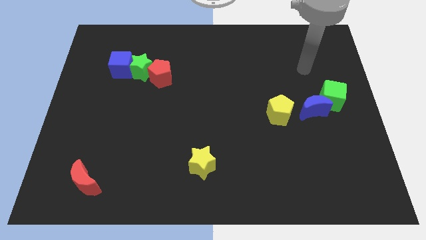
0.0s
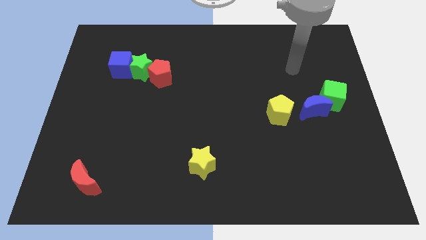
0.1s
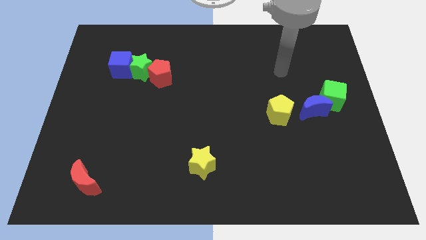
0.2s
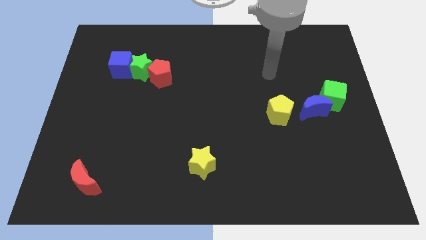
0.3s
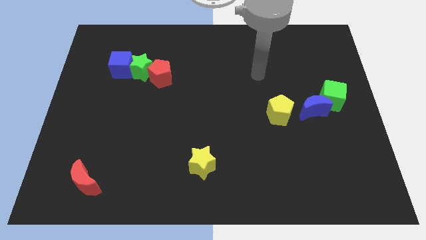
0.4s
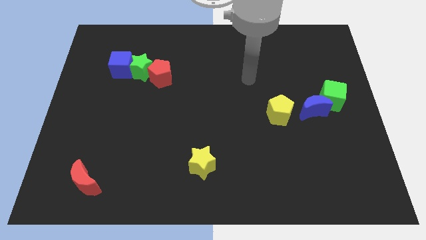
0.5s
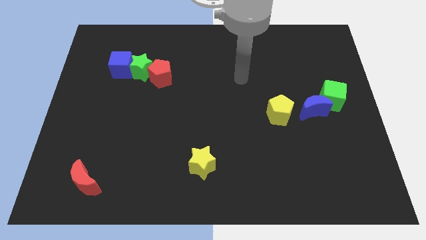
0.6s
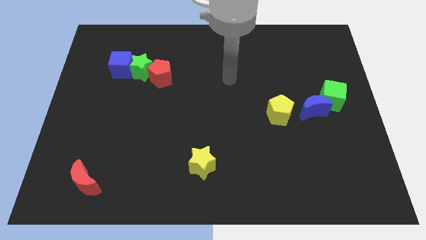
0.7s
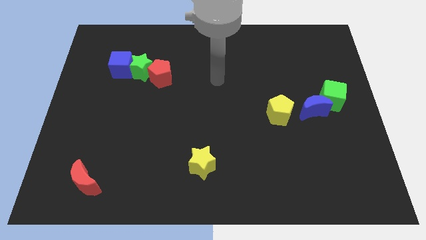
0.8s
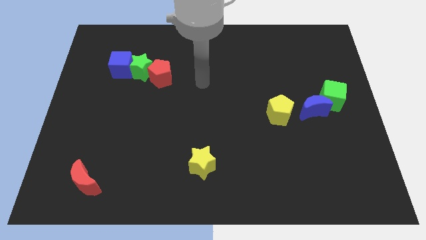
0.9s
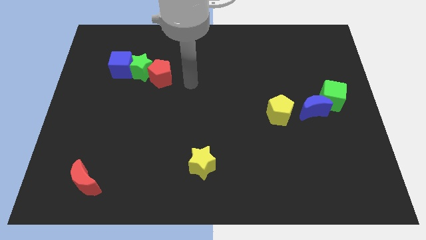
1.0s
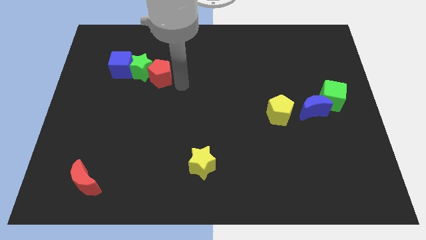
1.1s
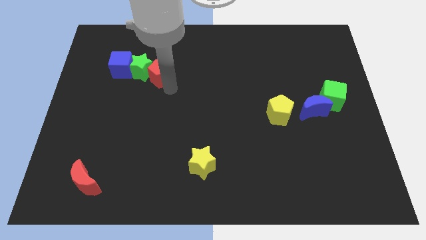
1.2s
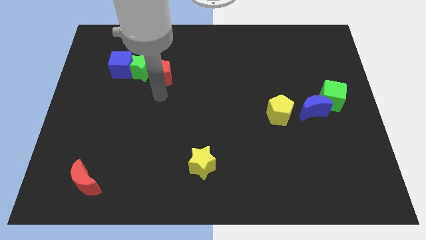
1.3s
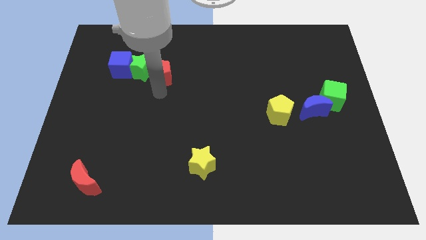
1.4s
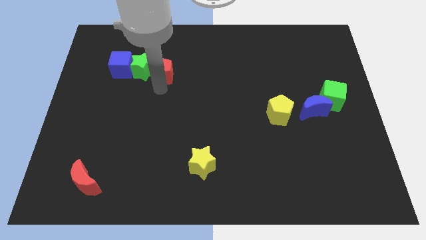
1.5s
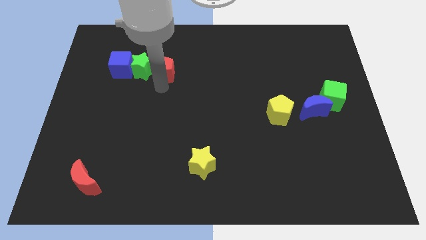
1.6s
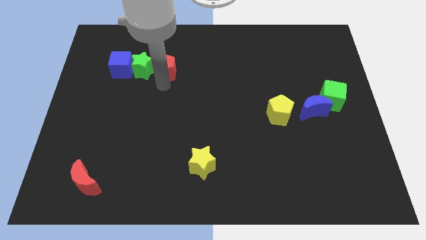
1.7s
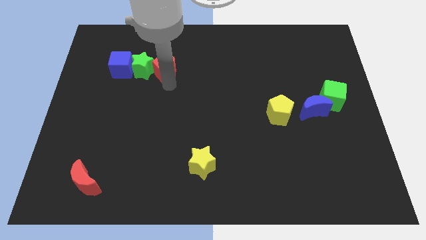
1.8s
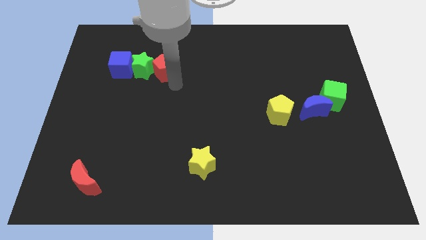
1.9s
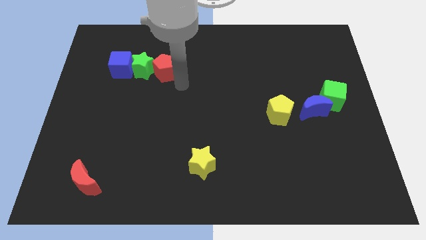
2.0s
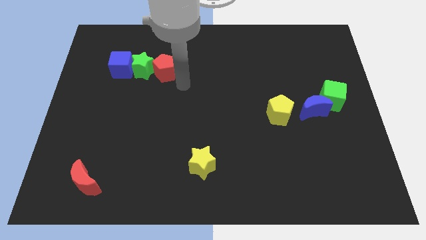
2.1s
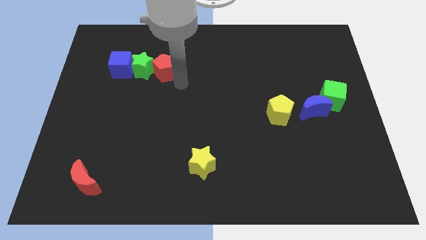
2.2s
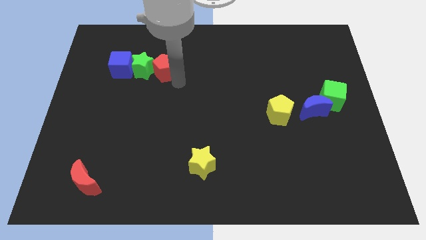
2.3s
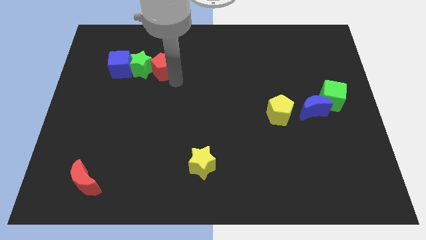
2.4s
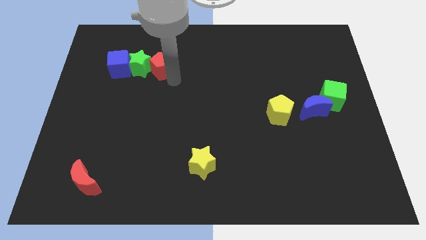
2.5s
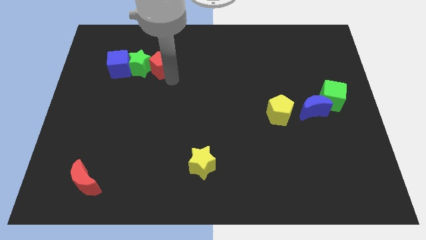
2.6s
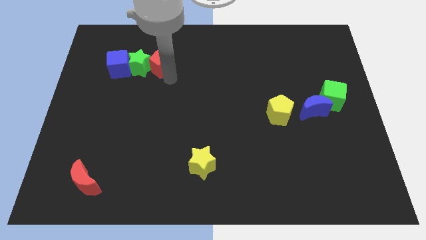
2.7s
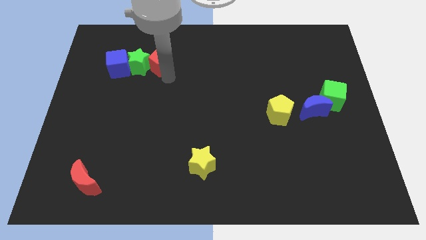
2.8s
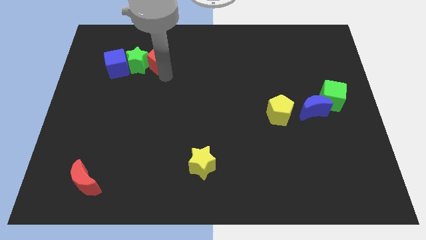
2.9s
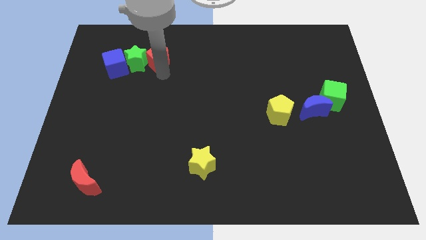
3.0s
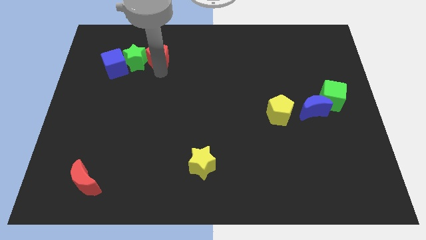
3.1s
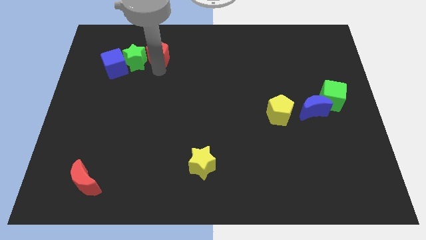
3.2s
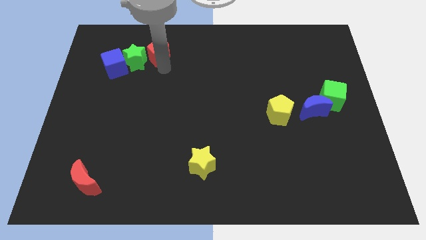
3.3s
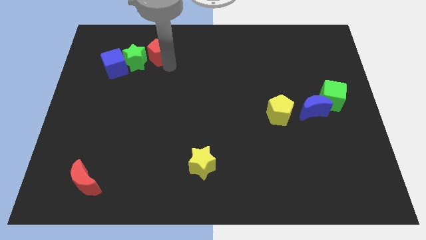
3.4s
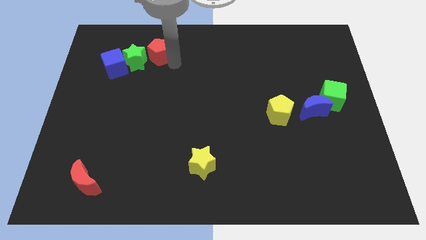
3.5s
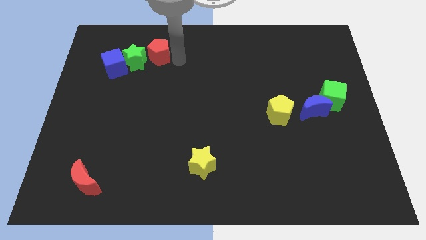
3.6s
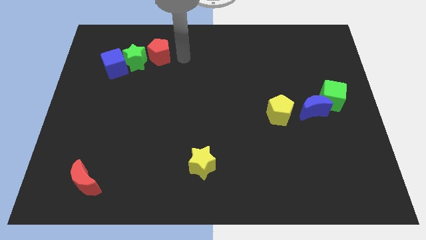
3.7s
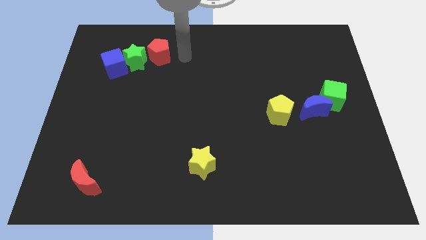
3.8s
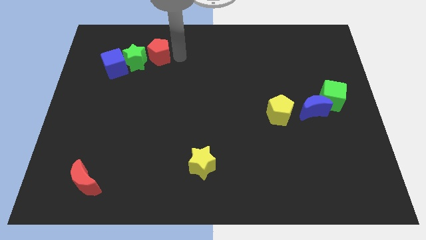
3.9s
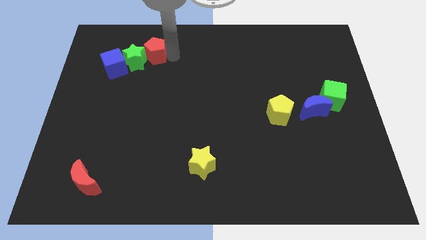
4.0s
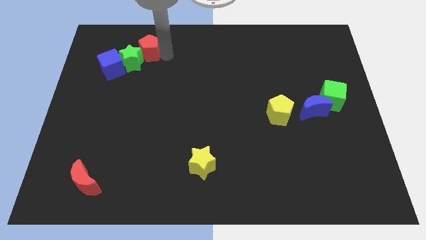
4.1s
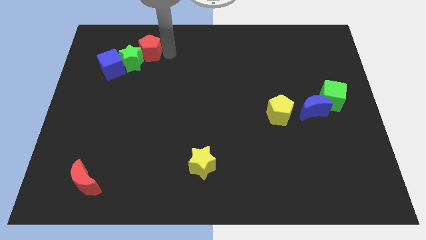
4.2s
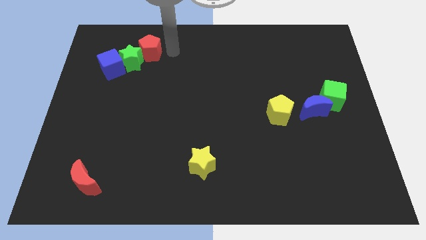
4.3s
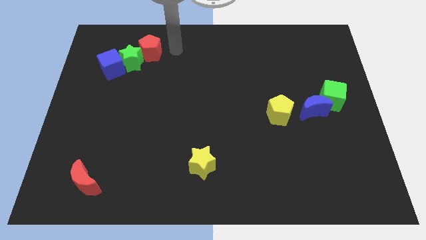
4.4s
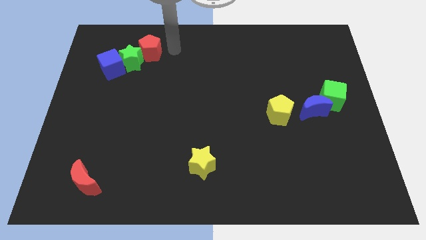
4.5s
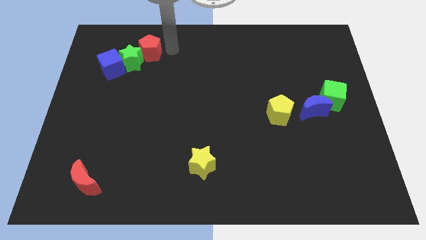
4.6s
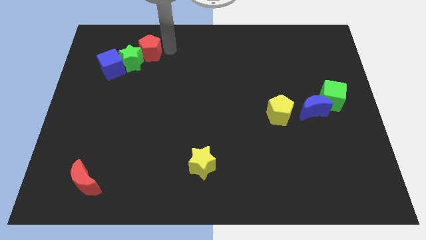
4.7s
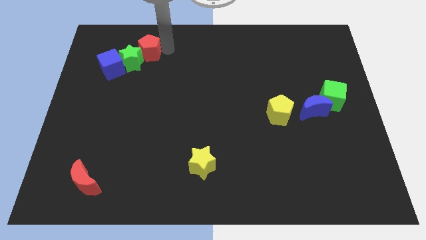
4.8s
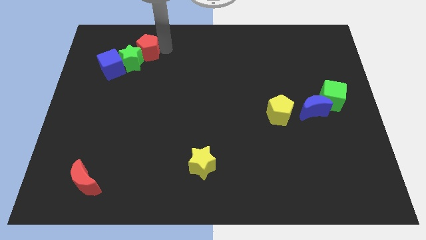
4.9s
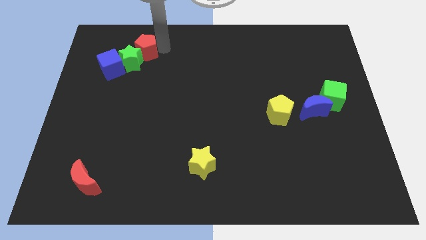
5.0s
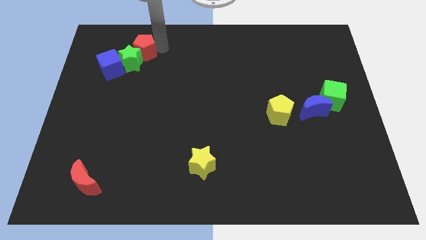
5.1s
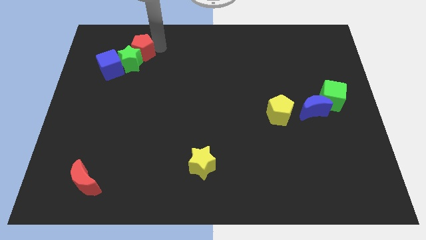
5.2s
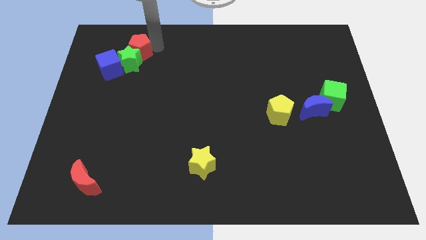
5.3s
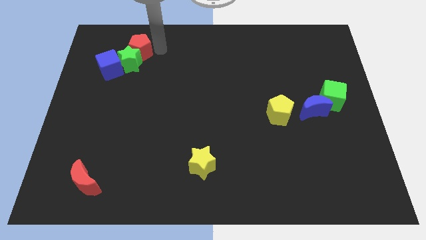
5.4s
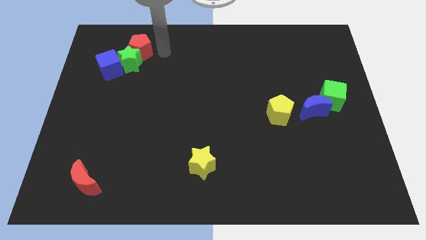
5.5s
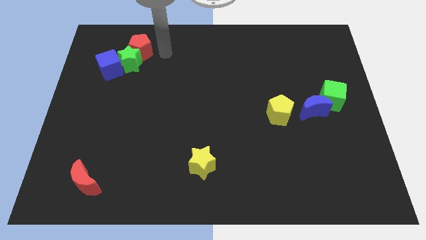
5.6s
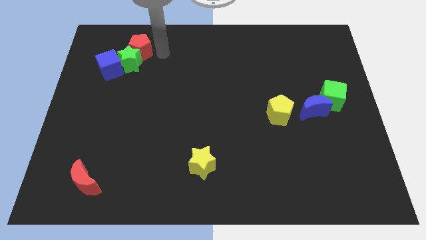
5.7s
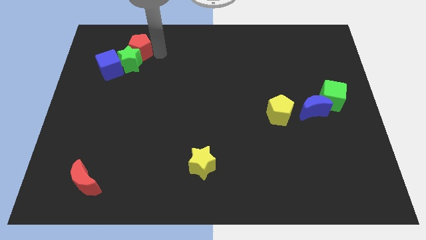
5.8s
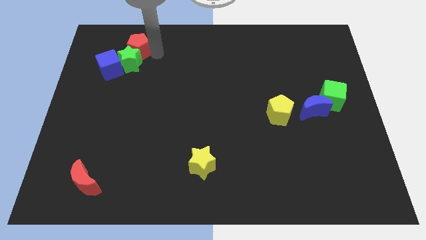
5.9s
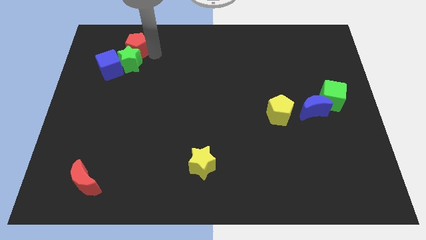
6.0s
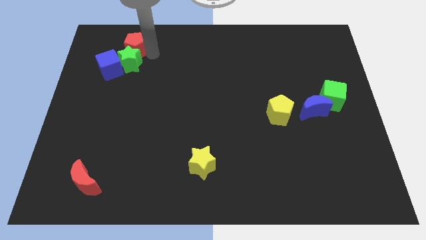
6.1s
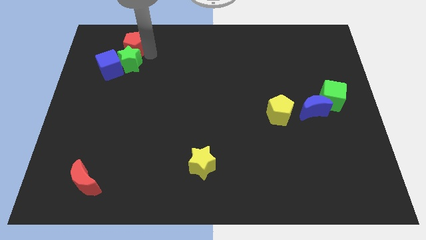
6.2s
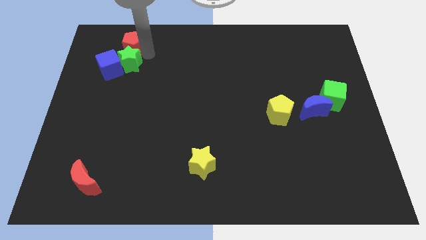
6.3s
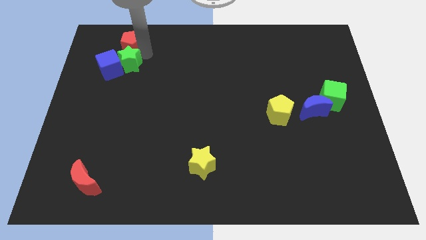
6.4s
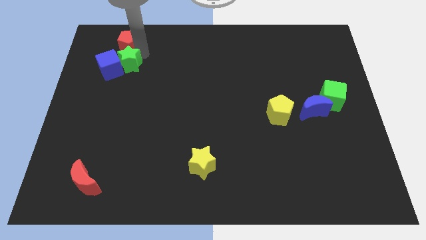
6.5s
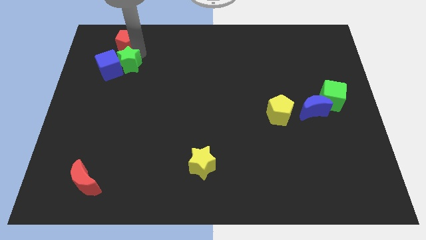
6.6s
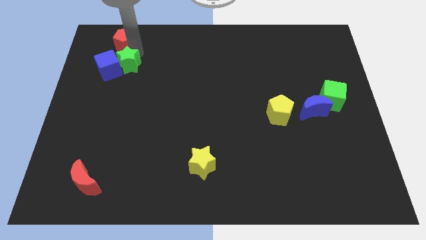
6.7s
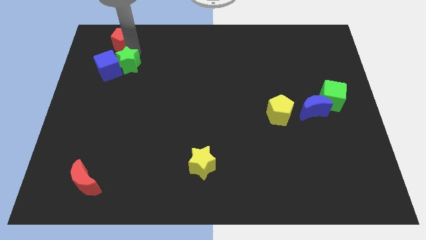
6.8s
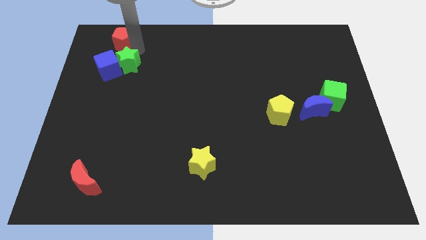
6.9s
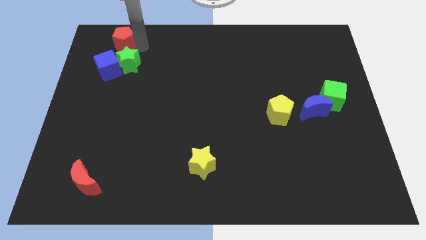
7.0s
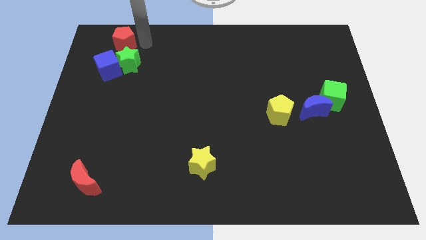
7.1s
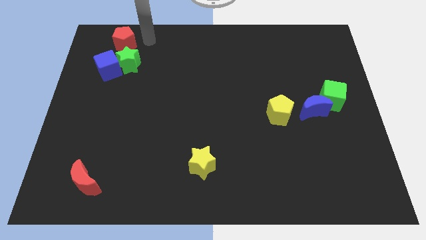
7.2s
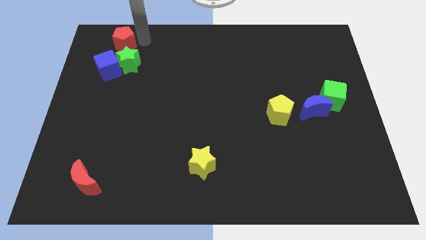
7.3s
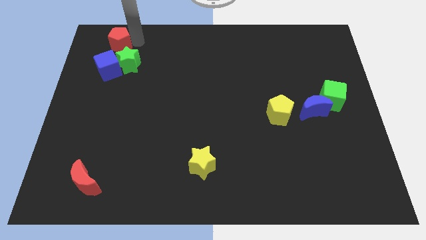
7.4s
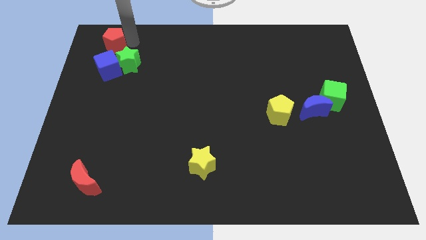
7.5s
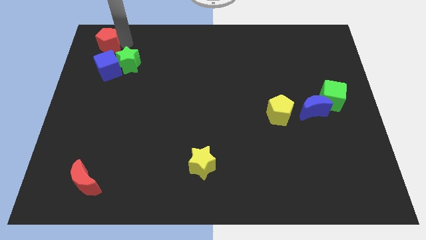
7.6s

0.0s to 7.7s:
push the red pentagon to the upper left corner
